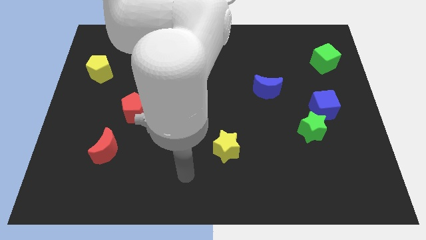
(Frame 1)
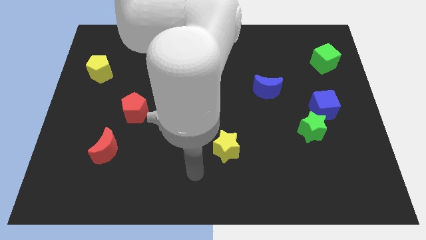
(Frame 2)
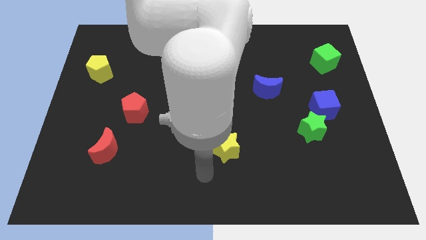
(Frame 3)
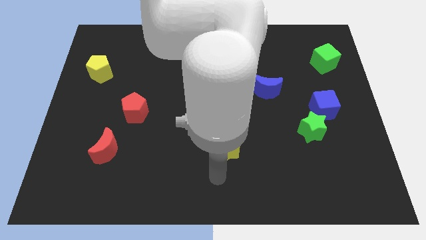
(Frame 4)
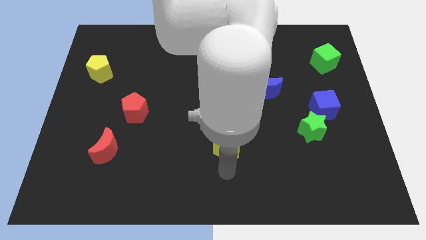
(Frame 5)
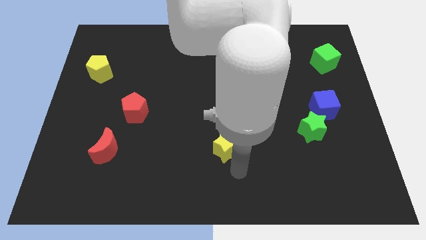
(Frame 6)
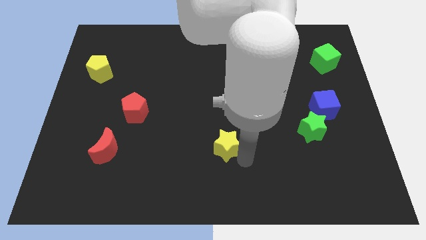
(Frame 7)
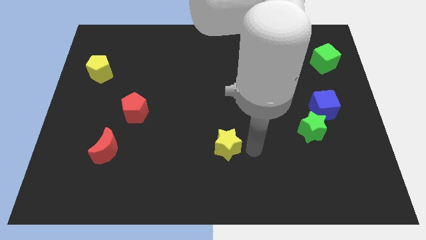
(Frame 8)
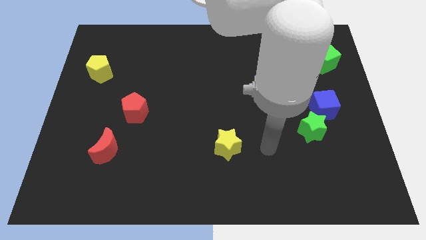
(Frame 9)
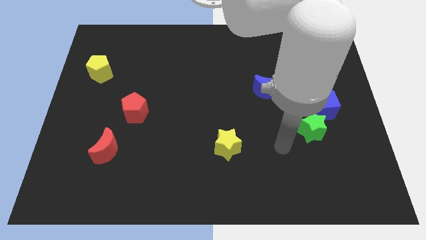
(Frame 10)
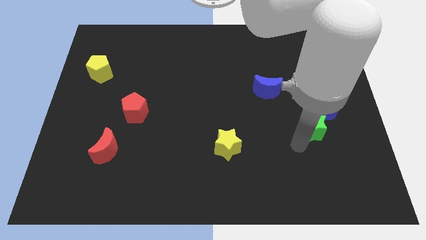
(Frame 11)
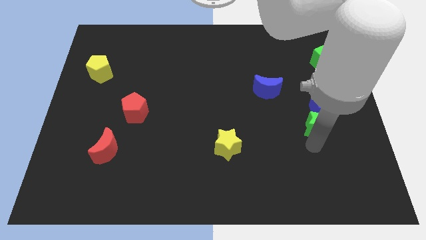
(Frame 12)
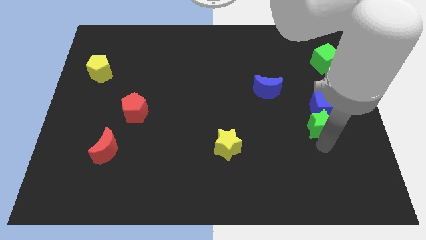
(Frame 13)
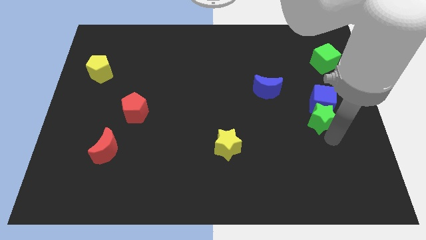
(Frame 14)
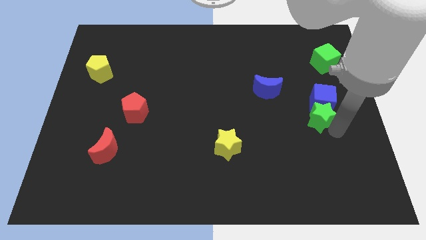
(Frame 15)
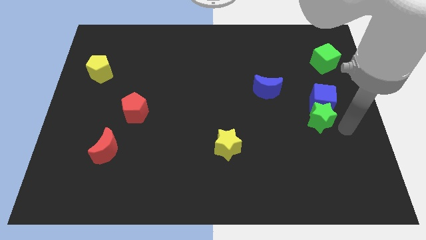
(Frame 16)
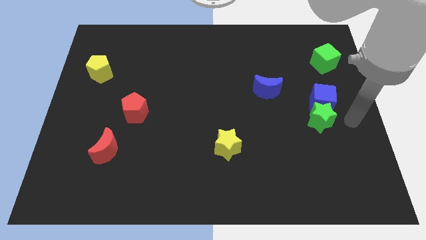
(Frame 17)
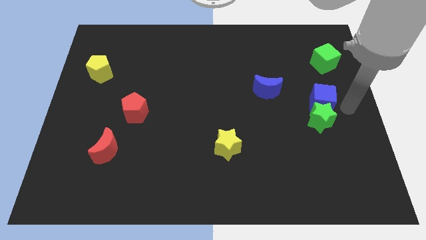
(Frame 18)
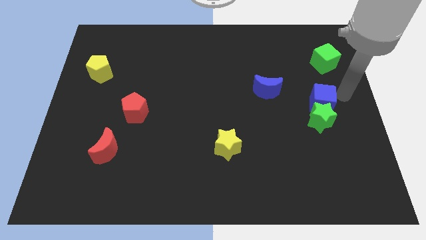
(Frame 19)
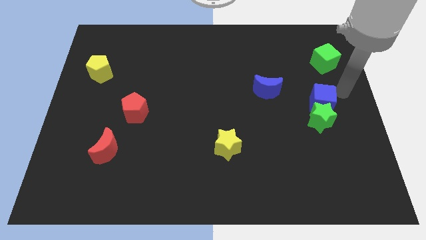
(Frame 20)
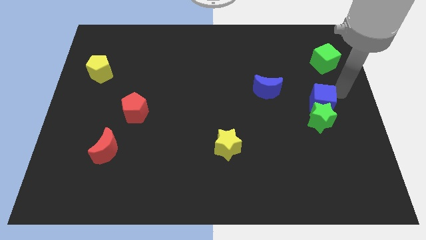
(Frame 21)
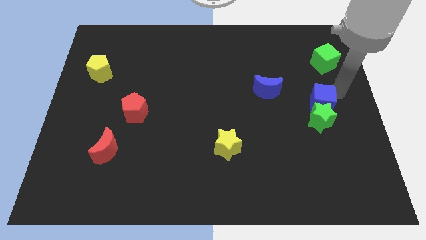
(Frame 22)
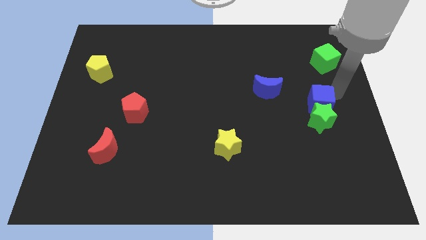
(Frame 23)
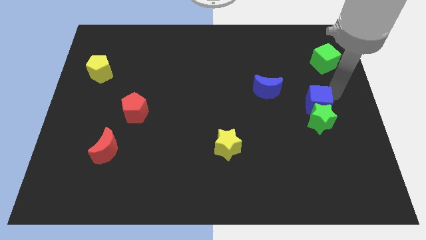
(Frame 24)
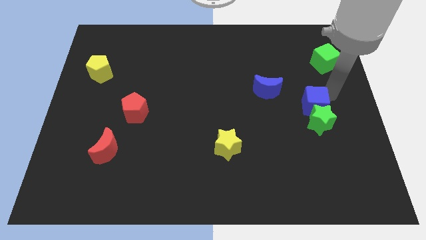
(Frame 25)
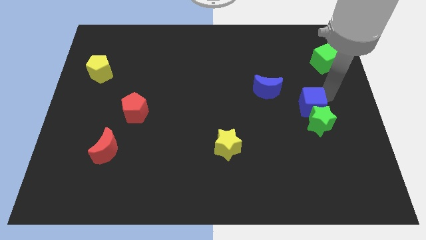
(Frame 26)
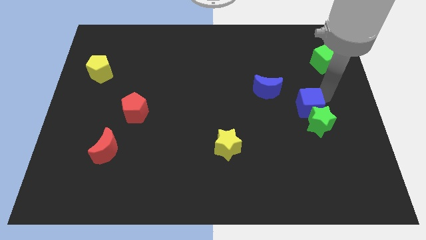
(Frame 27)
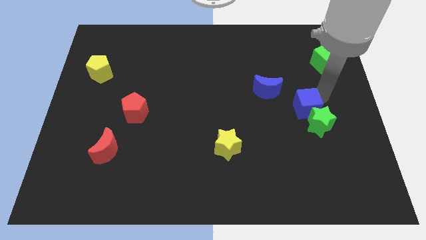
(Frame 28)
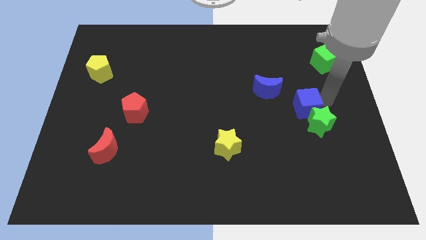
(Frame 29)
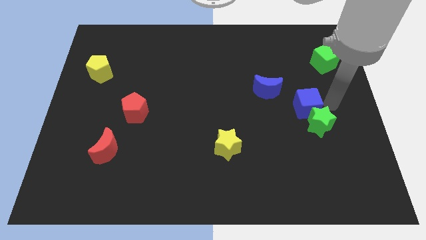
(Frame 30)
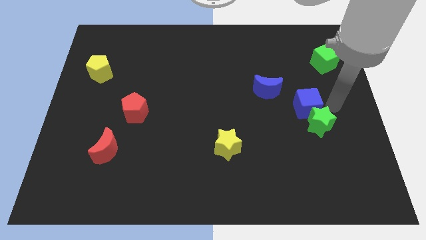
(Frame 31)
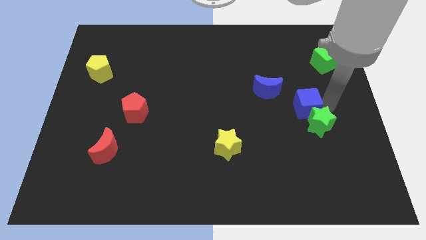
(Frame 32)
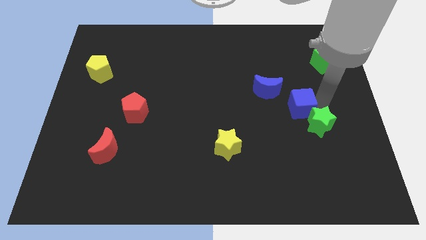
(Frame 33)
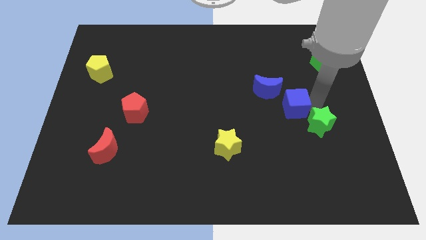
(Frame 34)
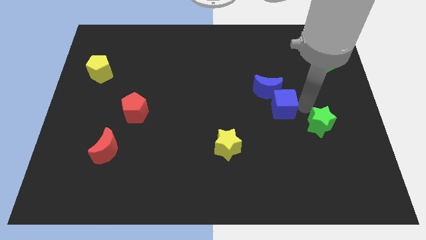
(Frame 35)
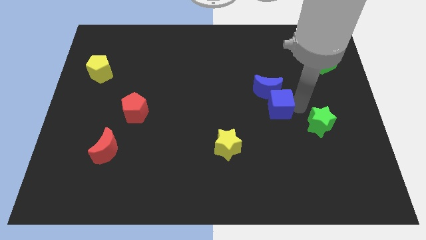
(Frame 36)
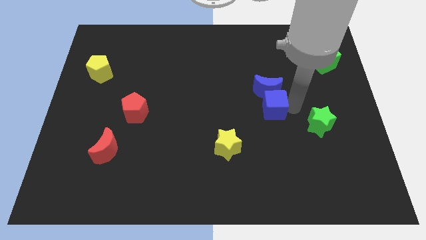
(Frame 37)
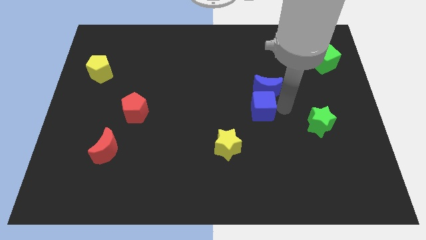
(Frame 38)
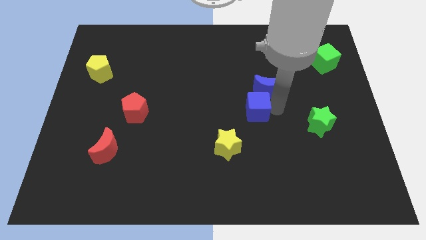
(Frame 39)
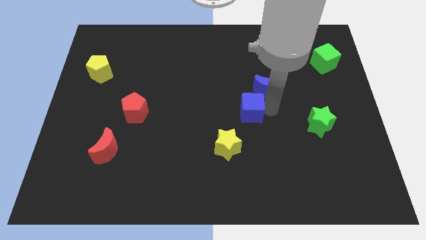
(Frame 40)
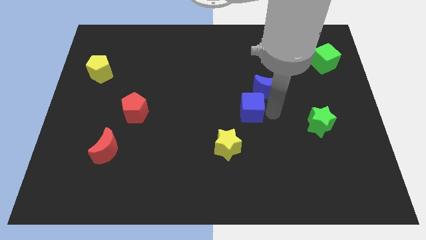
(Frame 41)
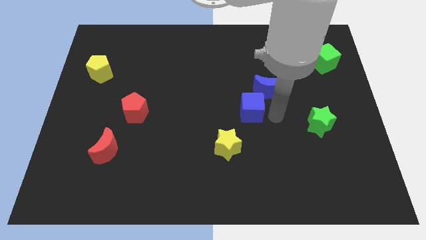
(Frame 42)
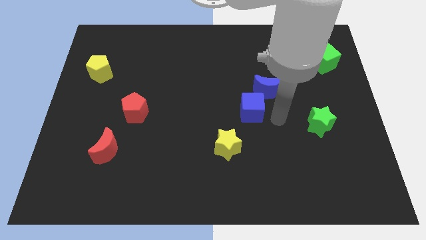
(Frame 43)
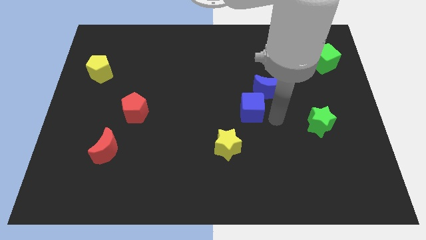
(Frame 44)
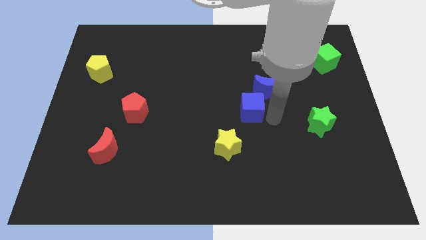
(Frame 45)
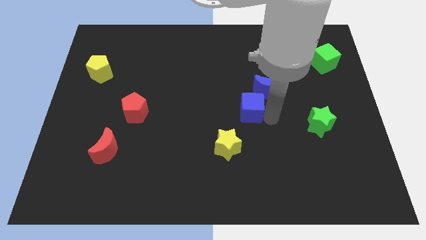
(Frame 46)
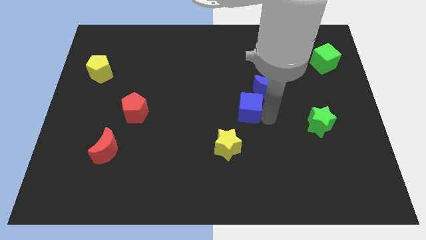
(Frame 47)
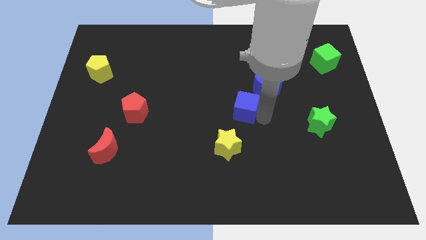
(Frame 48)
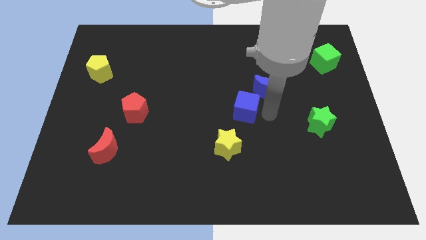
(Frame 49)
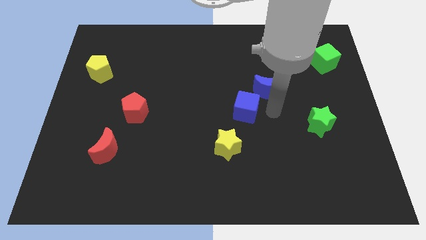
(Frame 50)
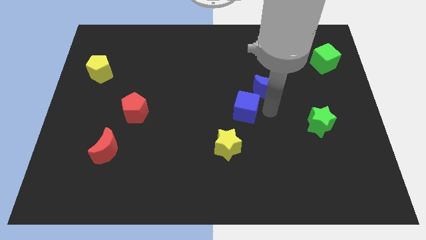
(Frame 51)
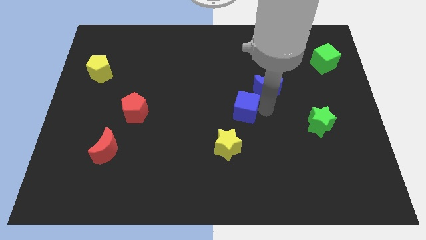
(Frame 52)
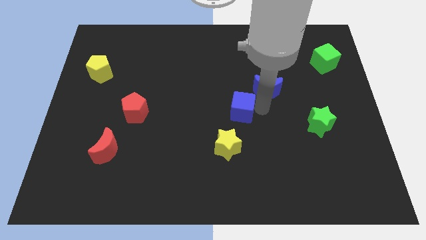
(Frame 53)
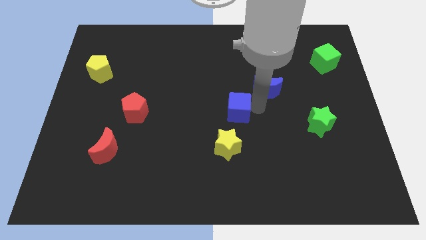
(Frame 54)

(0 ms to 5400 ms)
slide the blue cube left

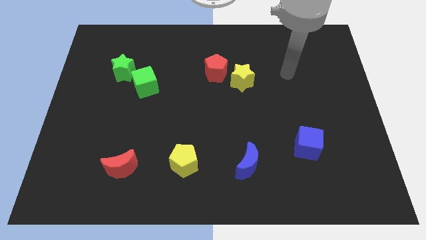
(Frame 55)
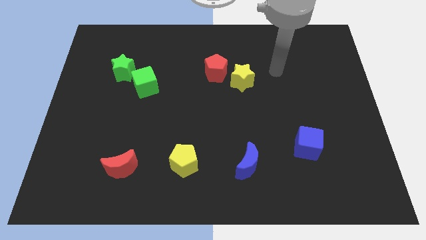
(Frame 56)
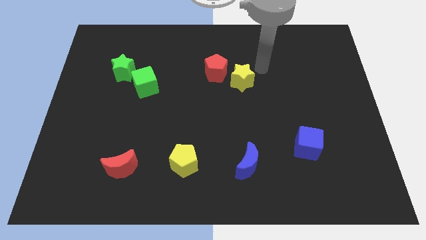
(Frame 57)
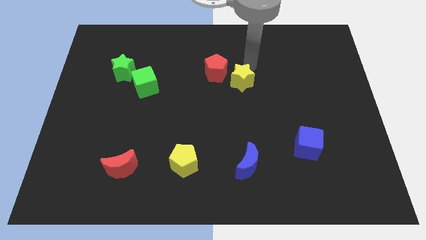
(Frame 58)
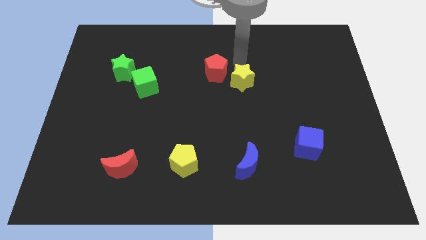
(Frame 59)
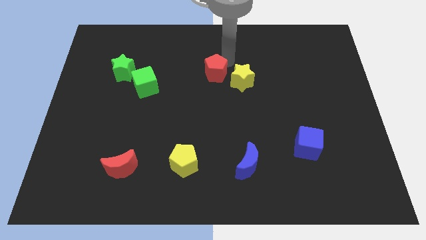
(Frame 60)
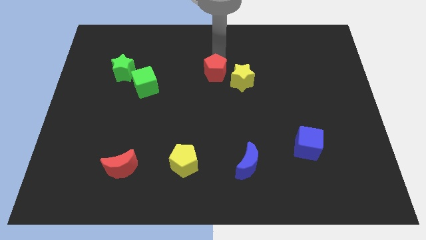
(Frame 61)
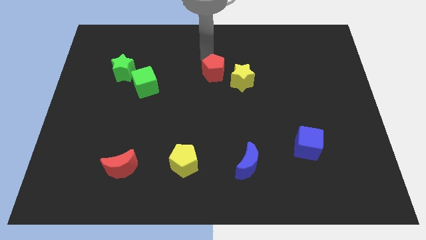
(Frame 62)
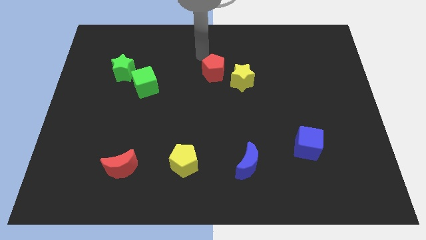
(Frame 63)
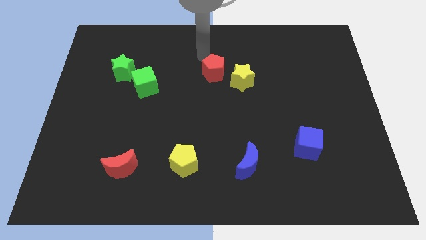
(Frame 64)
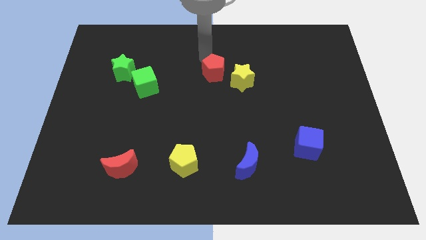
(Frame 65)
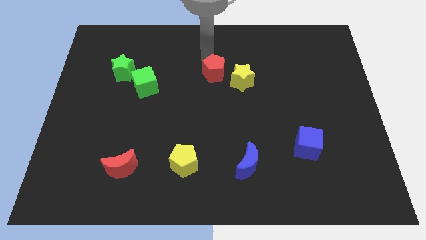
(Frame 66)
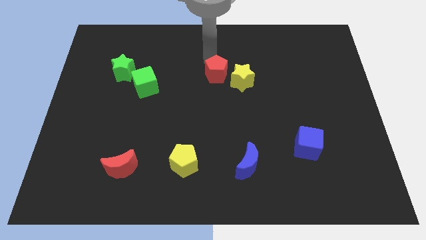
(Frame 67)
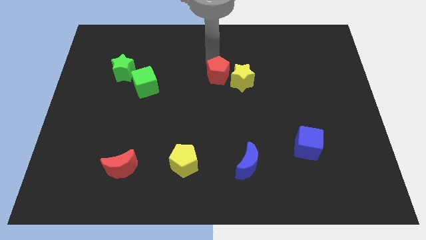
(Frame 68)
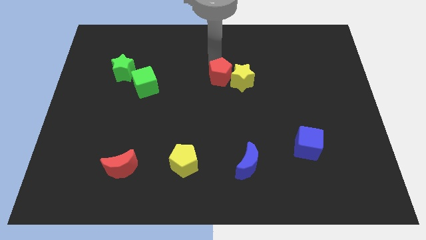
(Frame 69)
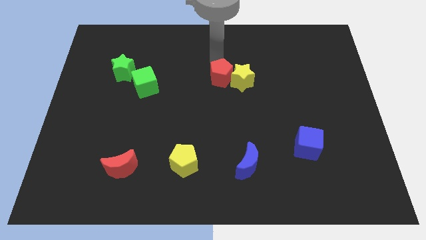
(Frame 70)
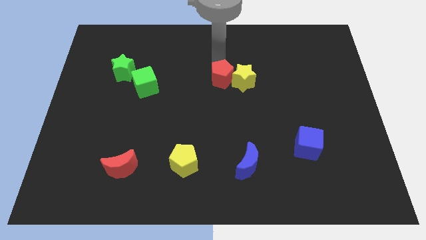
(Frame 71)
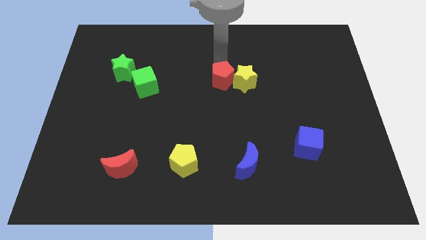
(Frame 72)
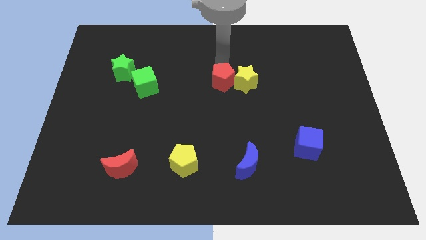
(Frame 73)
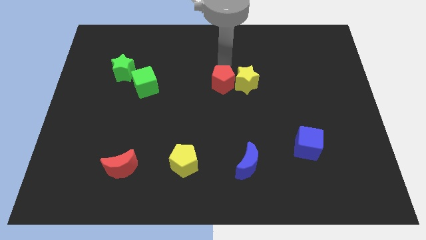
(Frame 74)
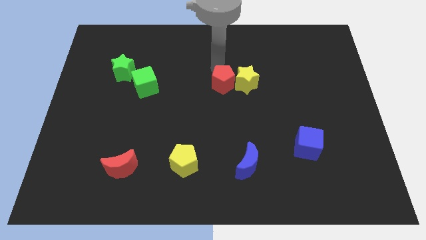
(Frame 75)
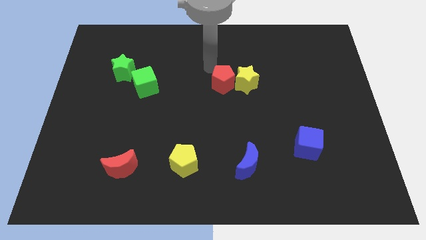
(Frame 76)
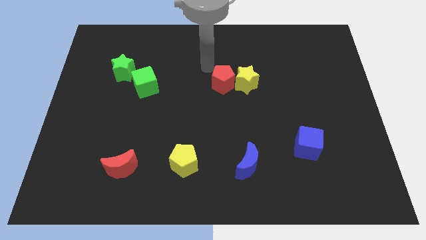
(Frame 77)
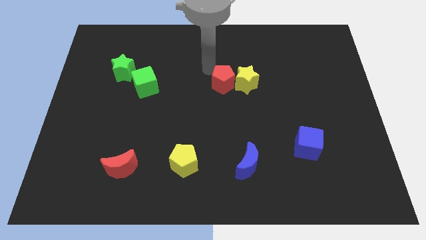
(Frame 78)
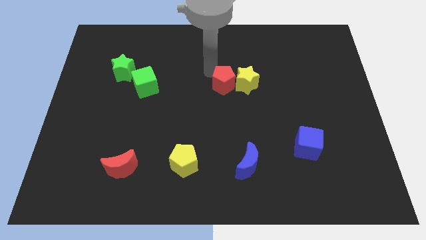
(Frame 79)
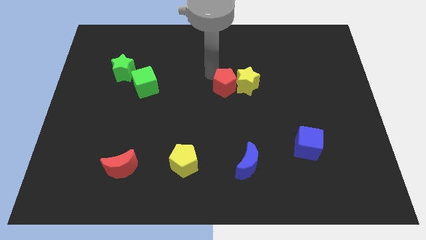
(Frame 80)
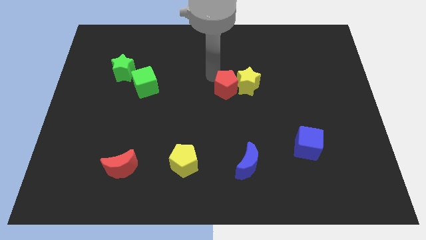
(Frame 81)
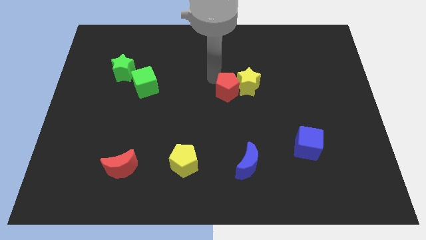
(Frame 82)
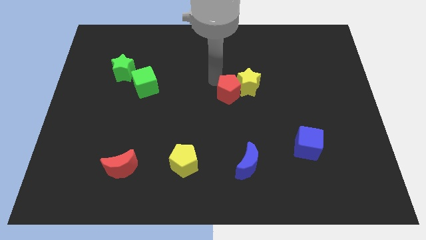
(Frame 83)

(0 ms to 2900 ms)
push the red pentagon a bit diagonally downwards and to the right
